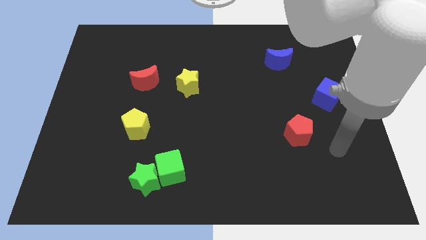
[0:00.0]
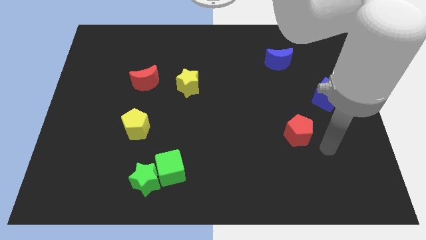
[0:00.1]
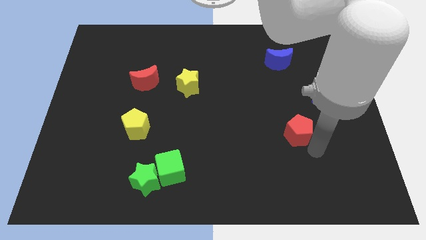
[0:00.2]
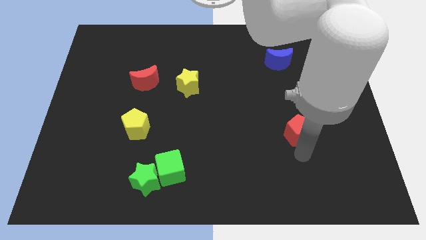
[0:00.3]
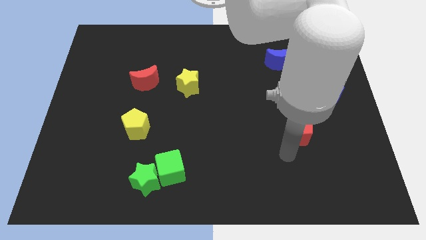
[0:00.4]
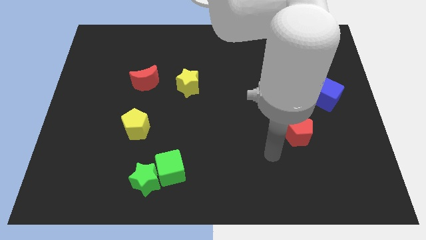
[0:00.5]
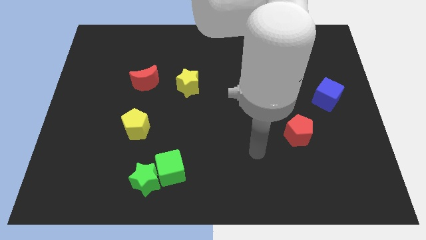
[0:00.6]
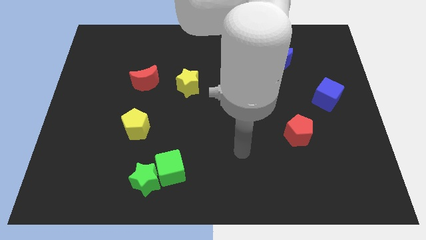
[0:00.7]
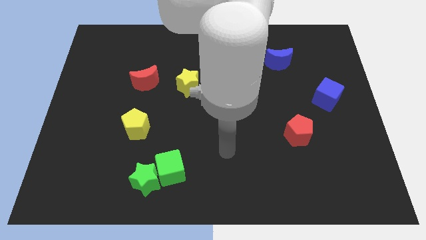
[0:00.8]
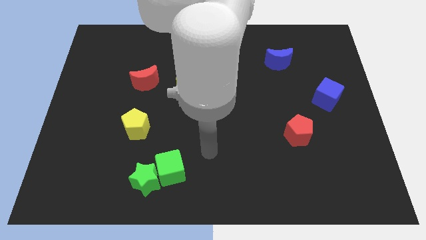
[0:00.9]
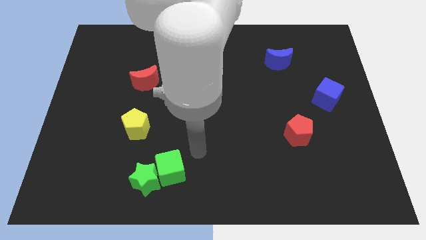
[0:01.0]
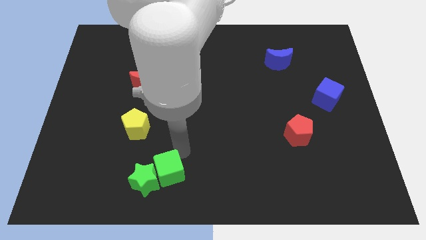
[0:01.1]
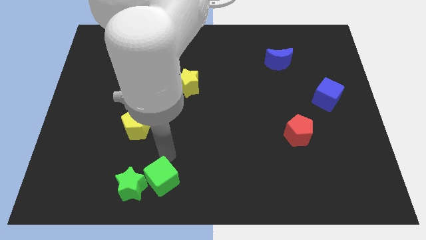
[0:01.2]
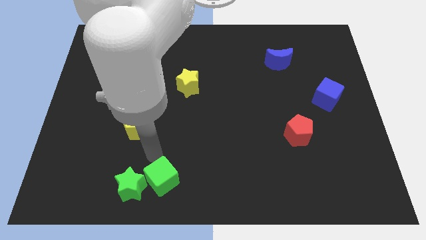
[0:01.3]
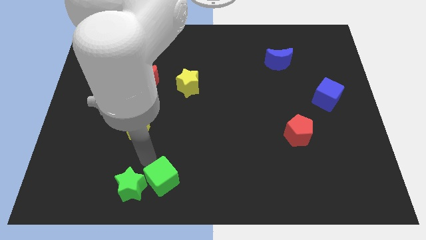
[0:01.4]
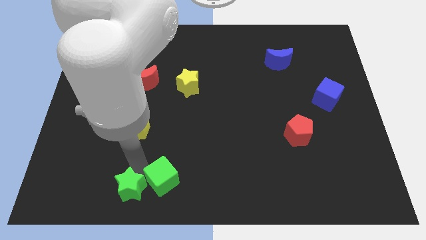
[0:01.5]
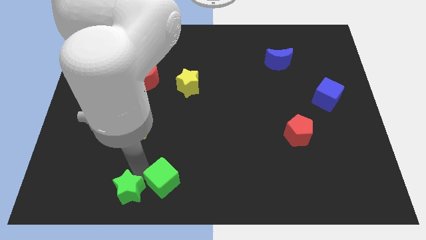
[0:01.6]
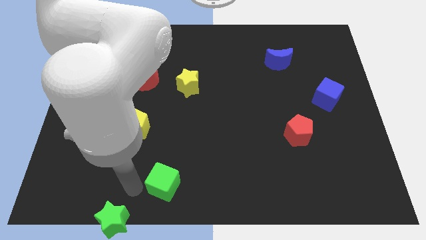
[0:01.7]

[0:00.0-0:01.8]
move the green cube away from the green star

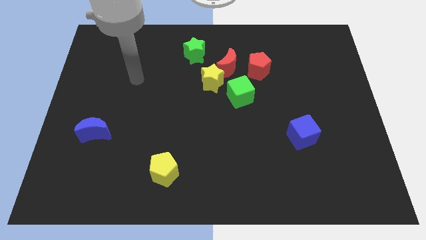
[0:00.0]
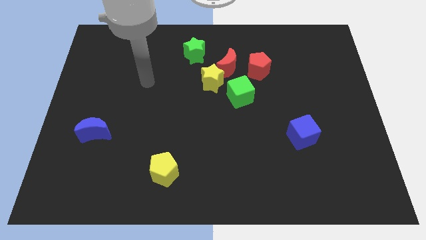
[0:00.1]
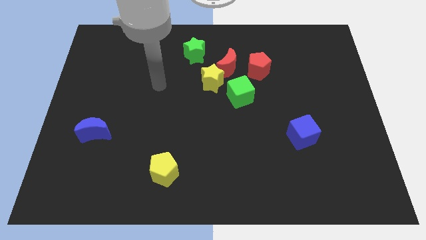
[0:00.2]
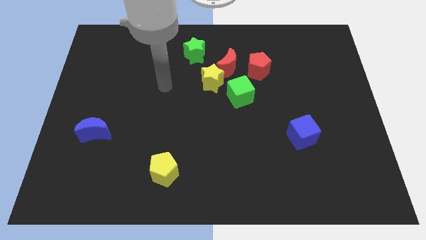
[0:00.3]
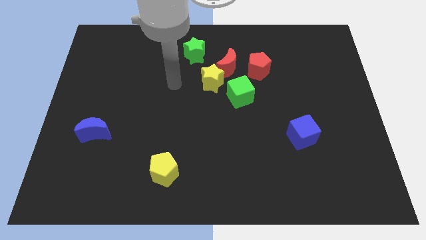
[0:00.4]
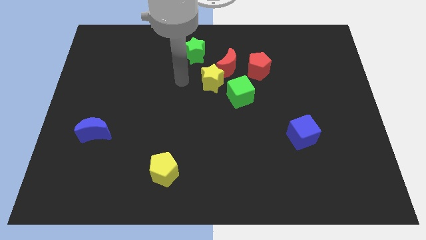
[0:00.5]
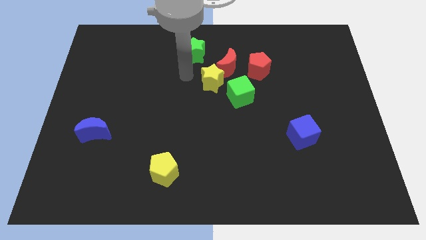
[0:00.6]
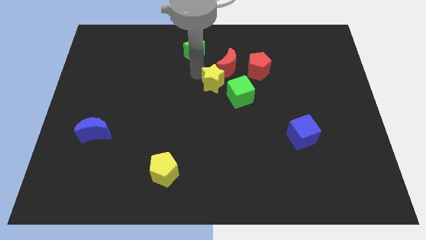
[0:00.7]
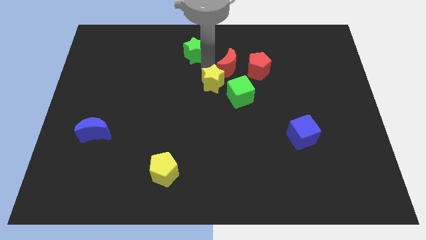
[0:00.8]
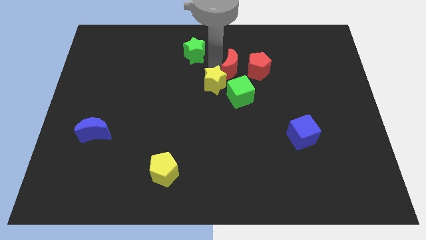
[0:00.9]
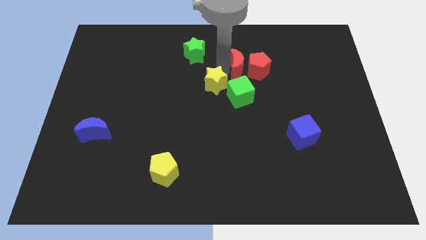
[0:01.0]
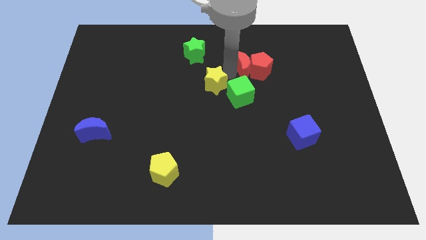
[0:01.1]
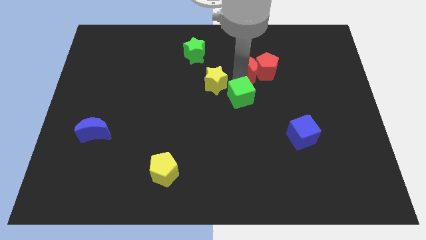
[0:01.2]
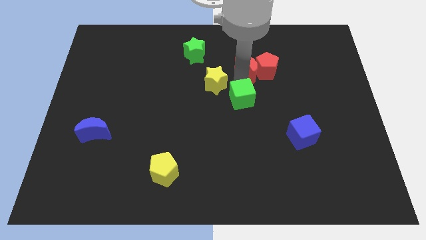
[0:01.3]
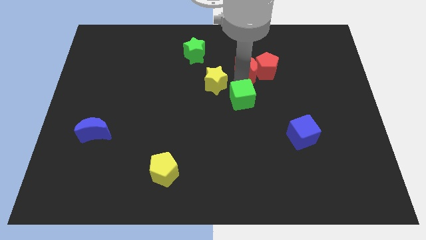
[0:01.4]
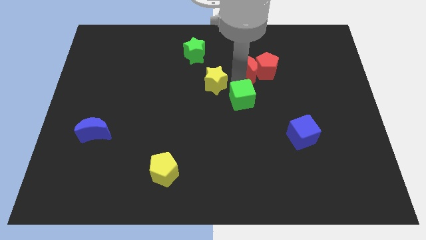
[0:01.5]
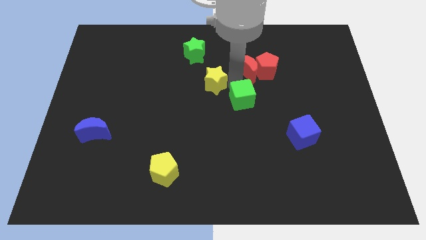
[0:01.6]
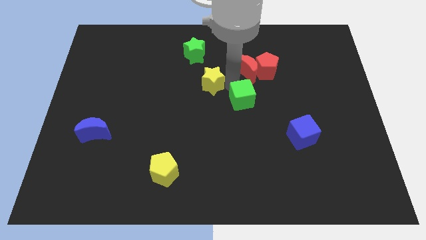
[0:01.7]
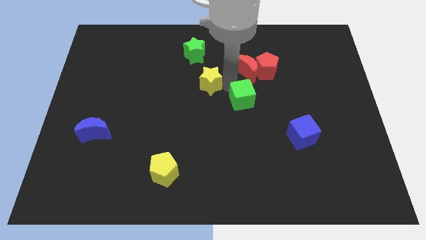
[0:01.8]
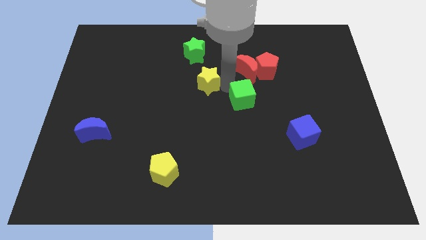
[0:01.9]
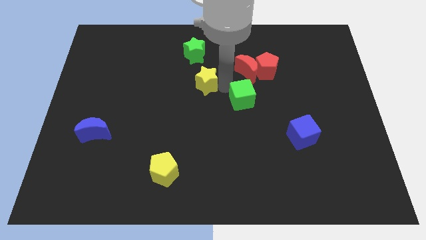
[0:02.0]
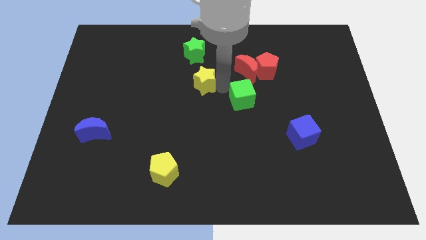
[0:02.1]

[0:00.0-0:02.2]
pull the yellow star apart from the red moon and green cube

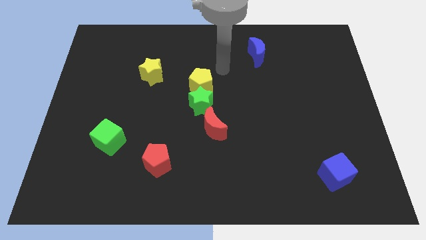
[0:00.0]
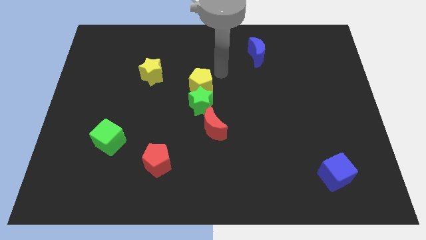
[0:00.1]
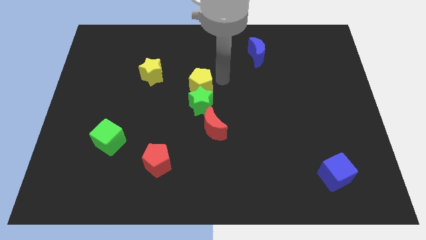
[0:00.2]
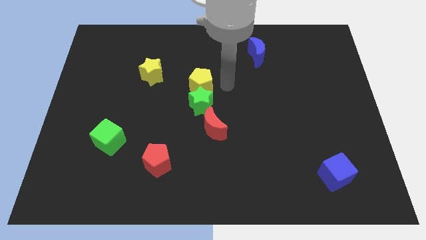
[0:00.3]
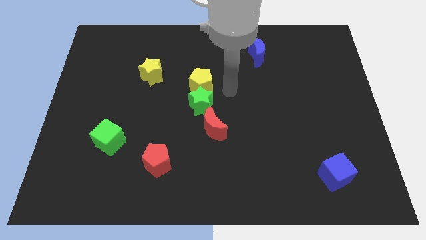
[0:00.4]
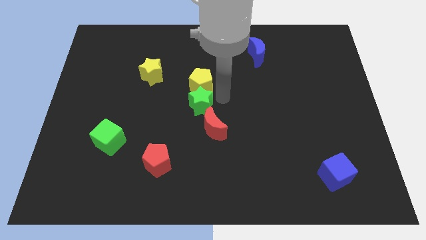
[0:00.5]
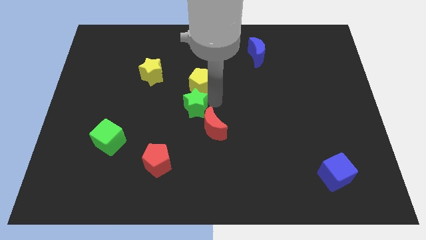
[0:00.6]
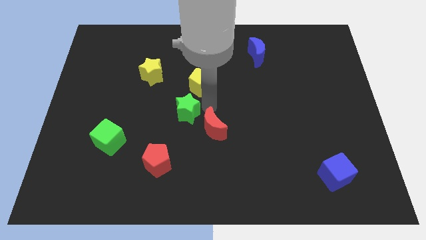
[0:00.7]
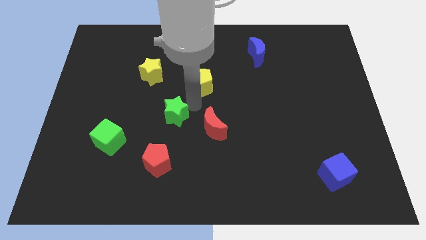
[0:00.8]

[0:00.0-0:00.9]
separate the yellow pentagon from the green star

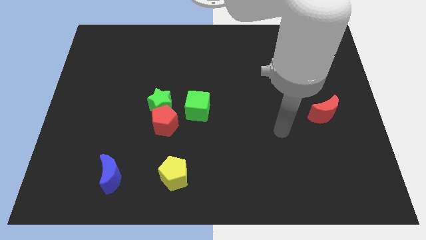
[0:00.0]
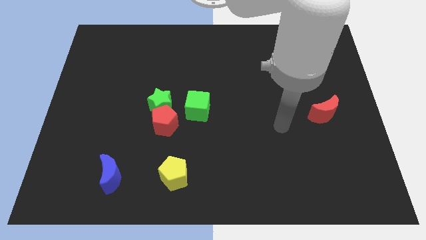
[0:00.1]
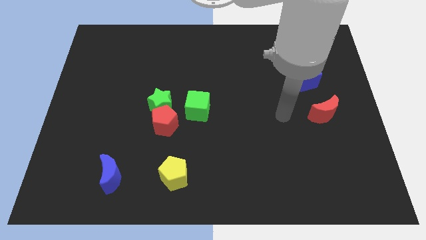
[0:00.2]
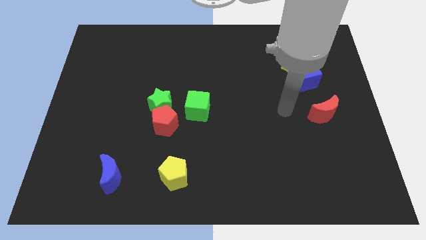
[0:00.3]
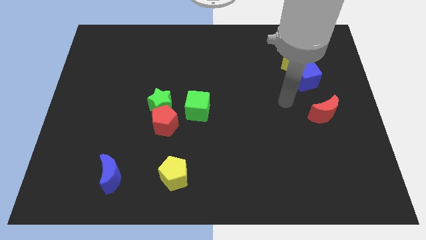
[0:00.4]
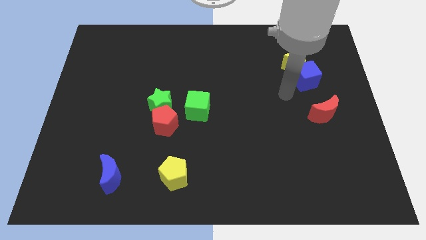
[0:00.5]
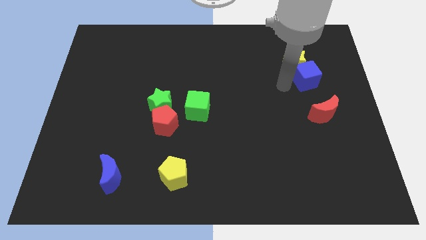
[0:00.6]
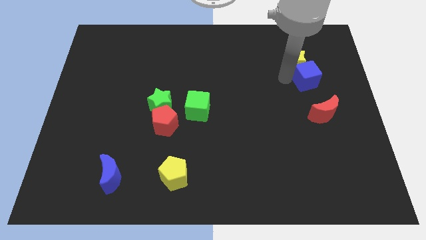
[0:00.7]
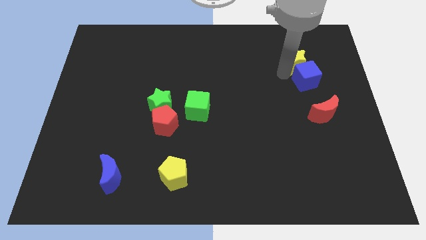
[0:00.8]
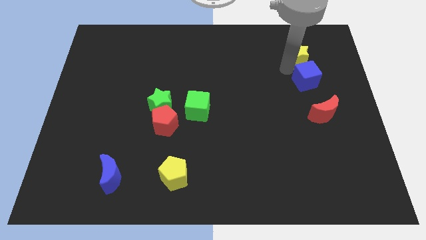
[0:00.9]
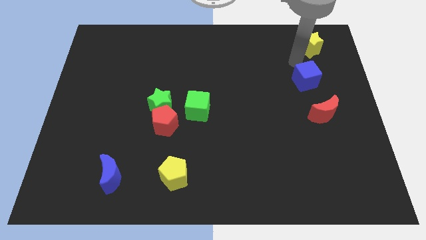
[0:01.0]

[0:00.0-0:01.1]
pull the blue cube apart from the yellow star

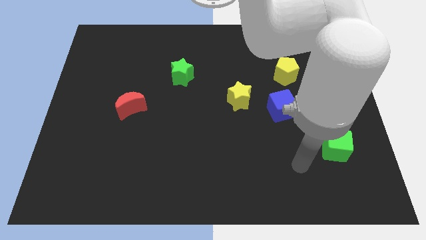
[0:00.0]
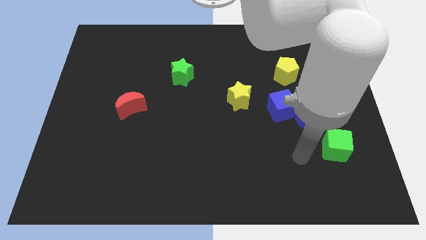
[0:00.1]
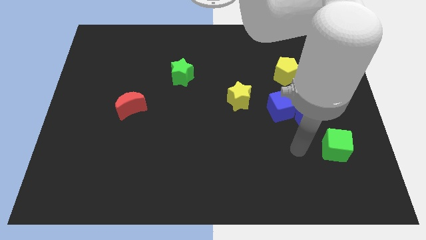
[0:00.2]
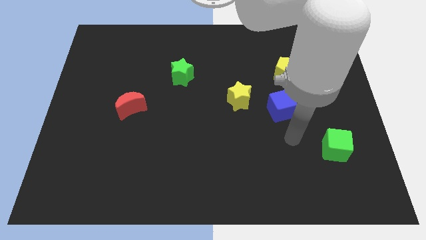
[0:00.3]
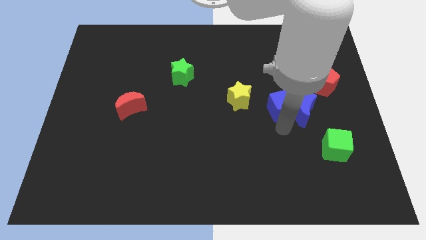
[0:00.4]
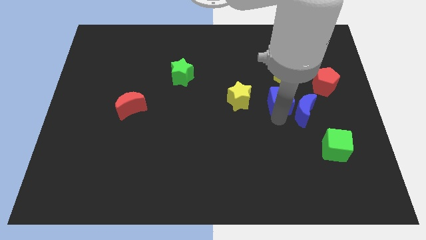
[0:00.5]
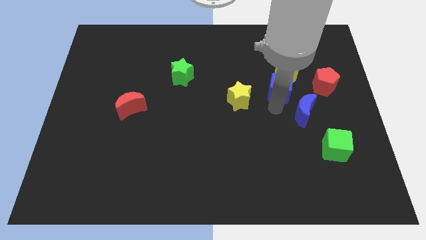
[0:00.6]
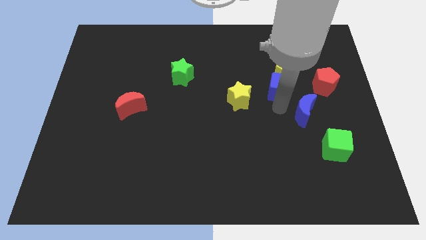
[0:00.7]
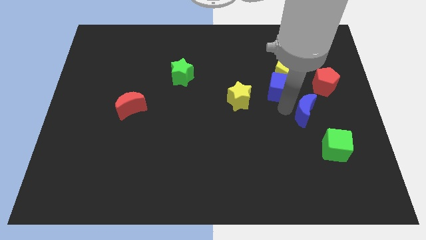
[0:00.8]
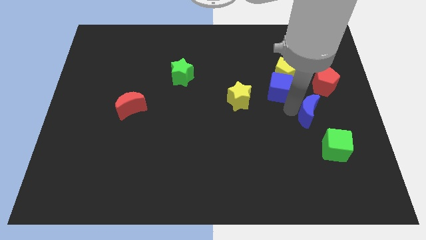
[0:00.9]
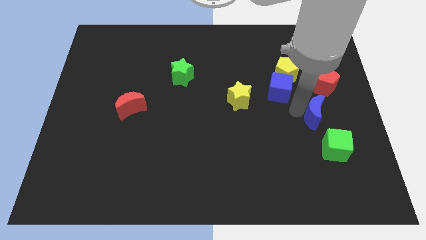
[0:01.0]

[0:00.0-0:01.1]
move the blue moon away from the blue cube

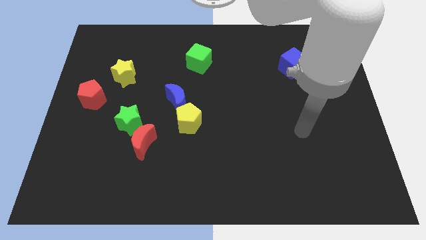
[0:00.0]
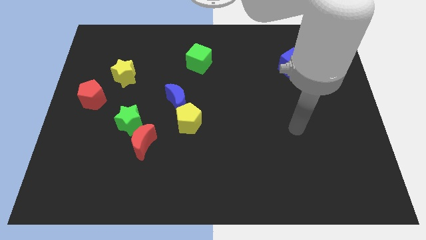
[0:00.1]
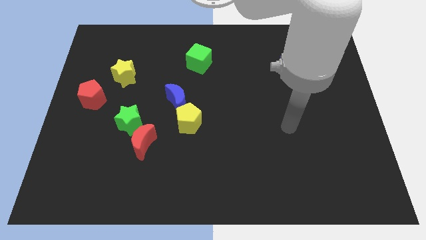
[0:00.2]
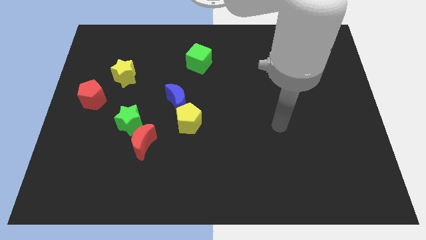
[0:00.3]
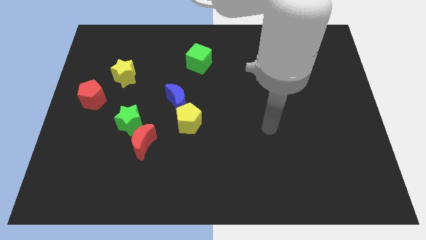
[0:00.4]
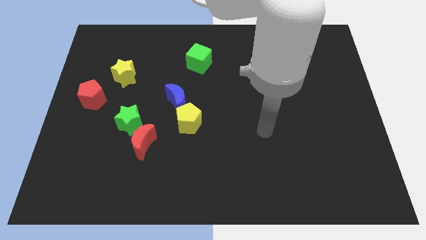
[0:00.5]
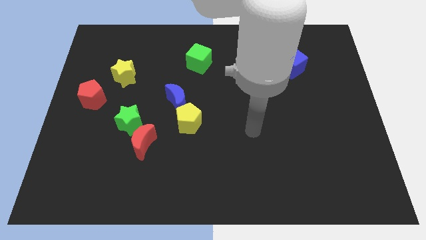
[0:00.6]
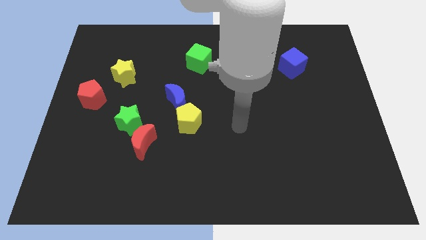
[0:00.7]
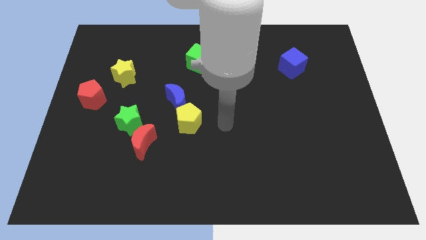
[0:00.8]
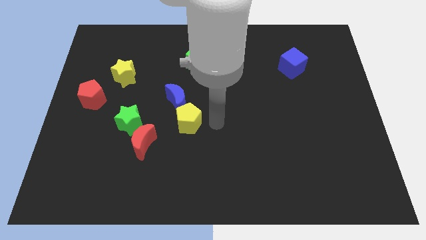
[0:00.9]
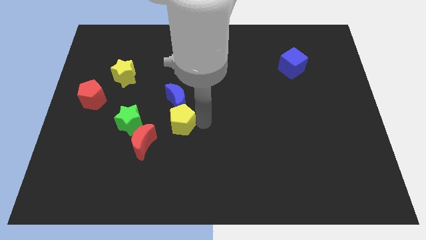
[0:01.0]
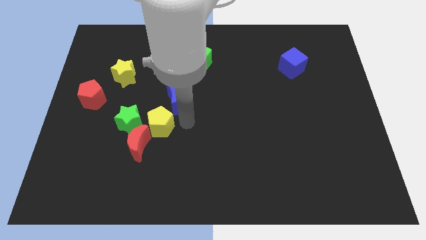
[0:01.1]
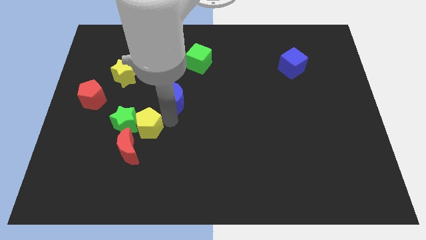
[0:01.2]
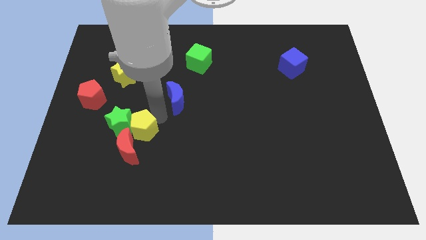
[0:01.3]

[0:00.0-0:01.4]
pull the blue moon apart from the yellow pentagon

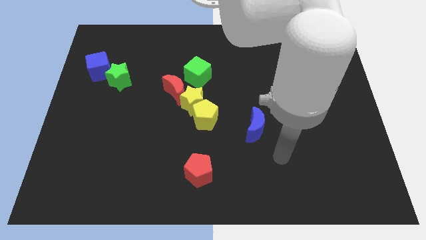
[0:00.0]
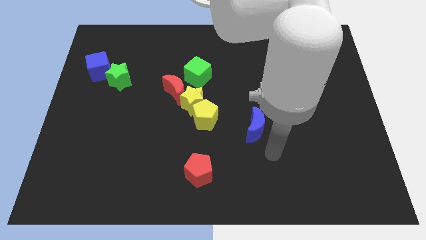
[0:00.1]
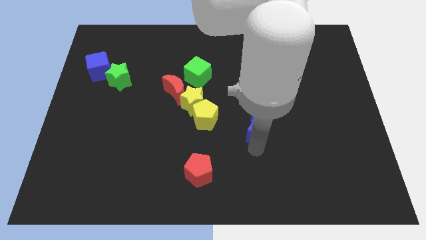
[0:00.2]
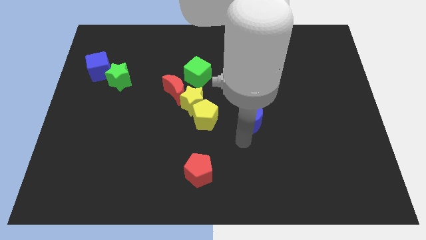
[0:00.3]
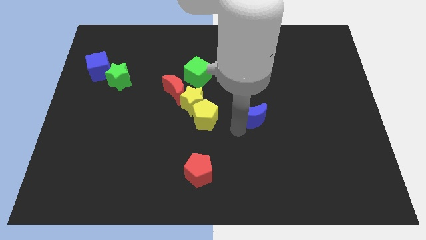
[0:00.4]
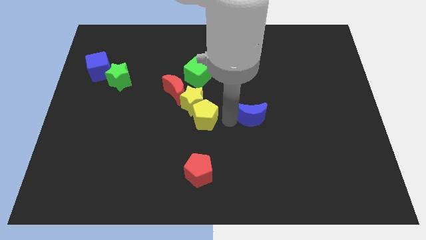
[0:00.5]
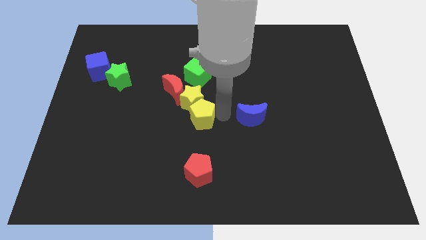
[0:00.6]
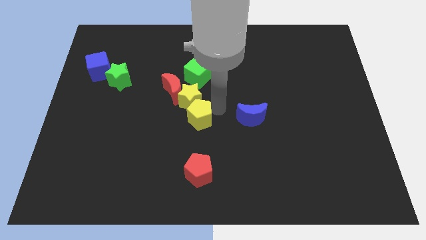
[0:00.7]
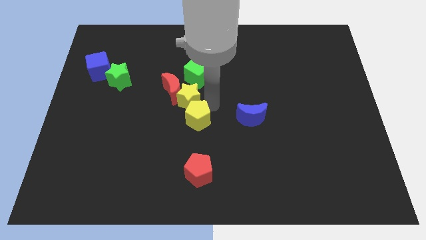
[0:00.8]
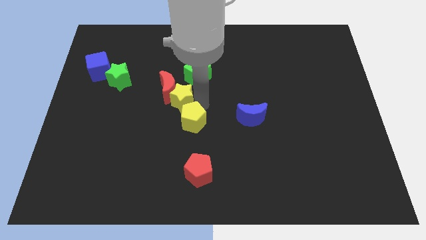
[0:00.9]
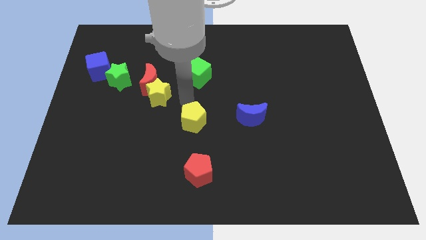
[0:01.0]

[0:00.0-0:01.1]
move the yellow pentagon away from the yellow star
